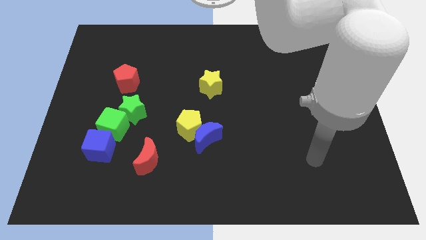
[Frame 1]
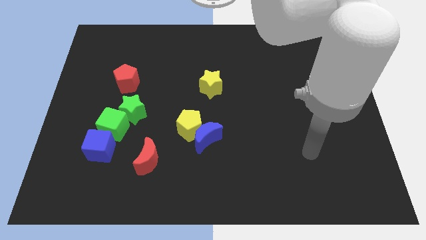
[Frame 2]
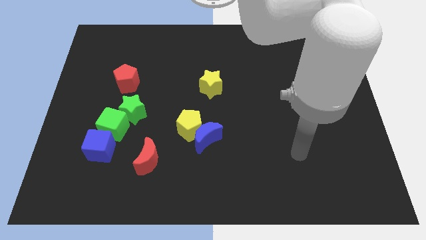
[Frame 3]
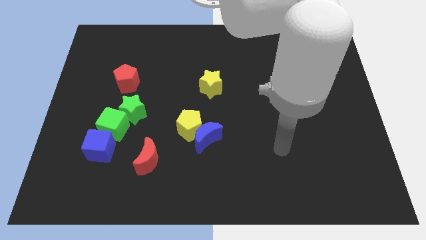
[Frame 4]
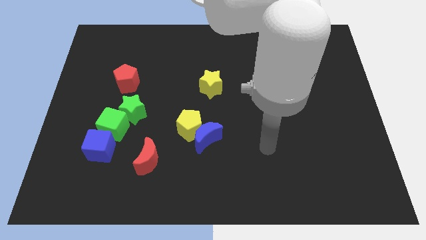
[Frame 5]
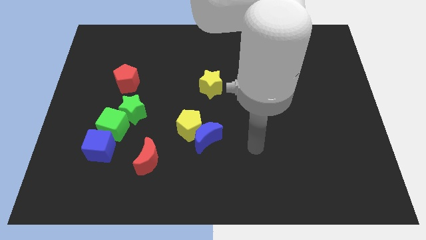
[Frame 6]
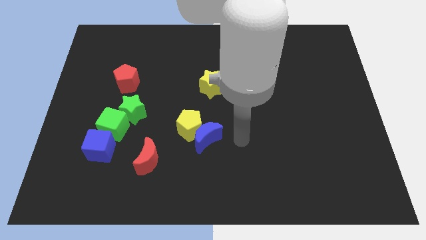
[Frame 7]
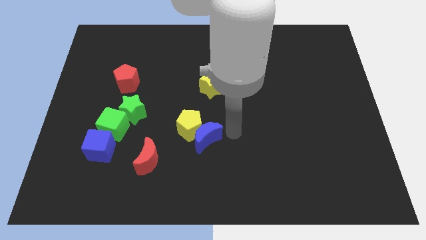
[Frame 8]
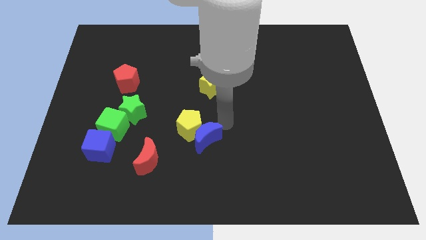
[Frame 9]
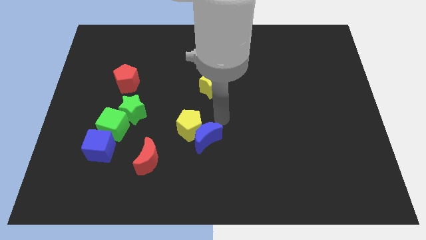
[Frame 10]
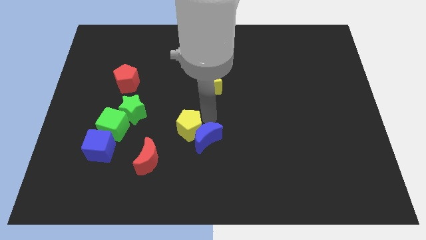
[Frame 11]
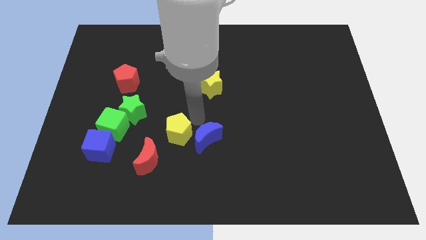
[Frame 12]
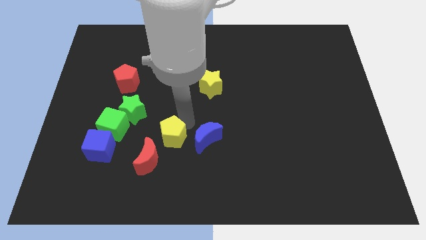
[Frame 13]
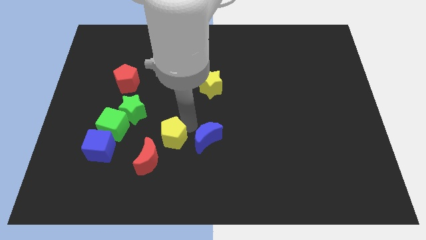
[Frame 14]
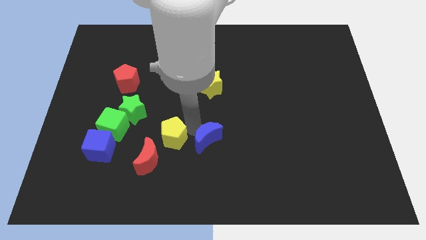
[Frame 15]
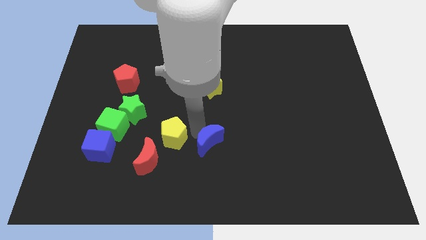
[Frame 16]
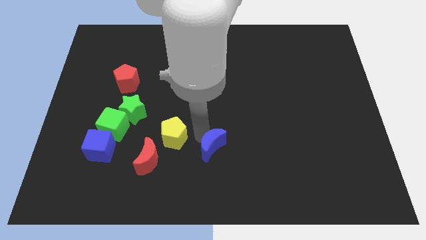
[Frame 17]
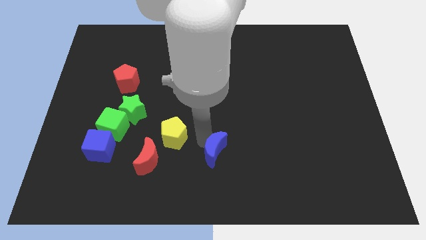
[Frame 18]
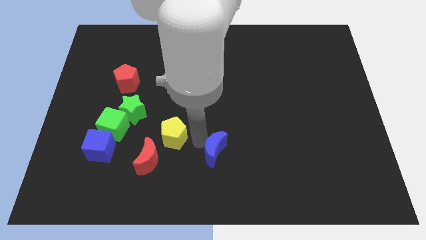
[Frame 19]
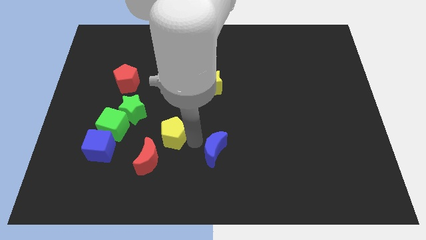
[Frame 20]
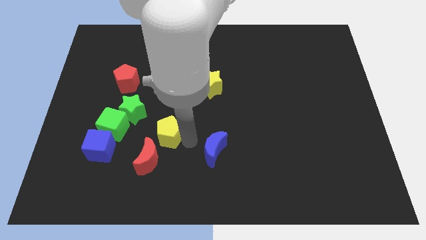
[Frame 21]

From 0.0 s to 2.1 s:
separate the blue moon from the yellow pentagon

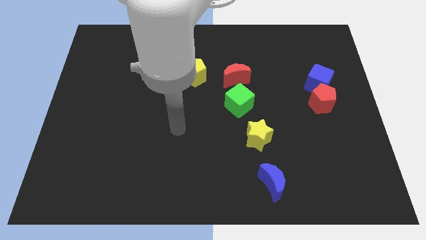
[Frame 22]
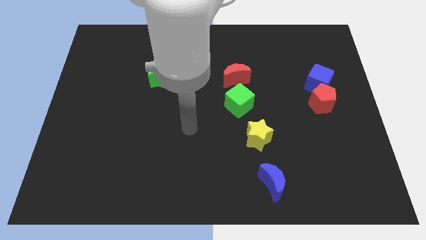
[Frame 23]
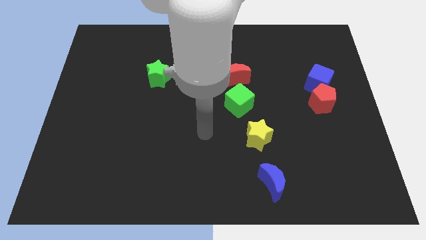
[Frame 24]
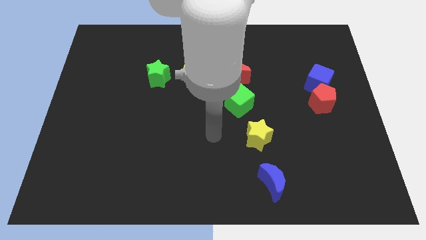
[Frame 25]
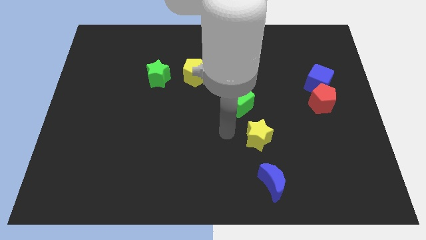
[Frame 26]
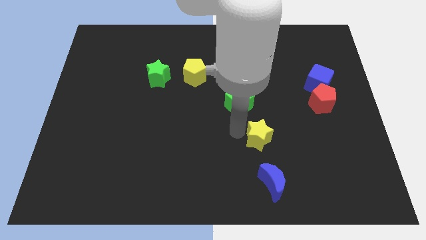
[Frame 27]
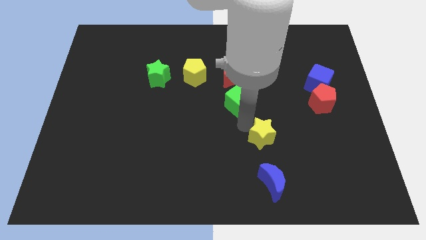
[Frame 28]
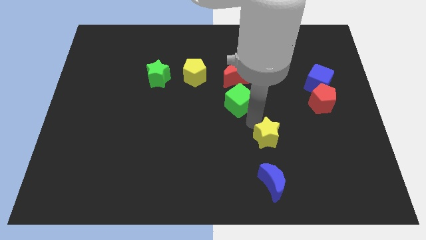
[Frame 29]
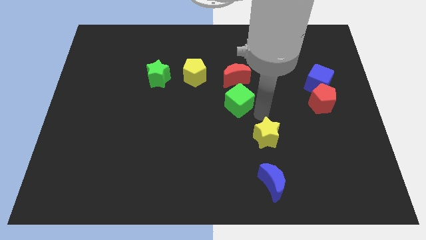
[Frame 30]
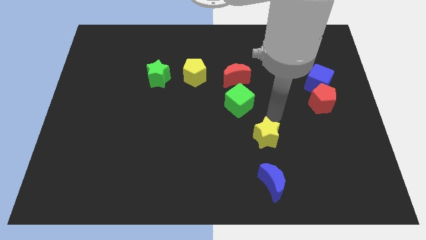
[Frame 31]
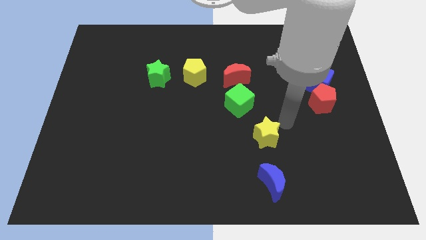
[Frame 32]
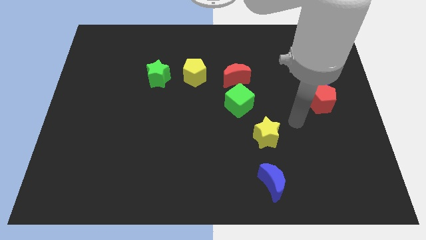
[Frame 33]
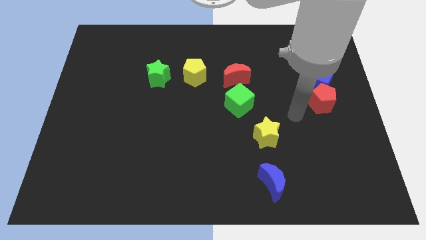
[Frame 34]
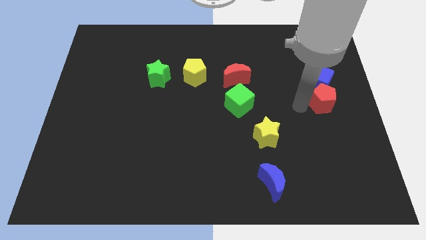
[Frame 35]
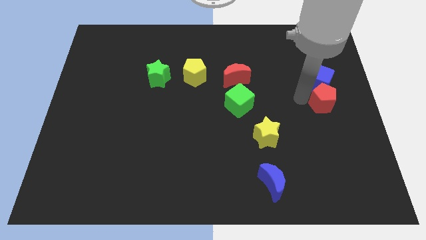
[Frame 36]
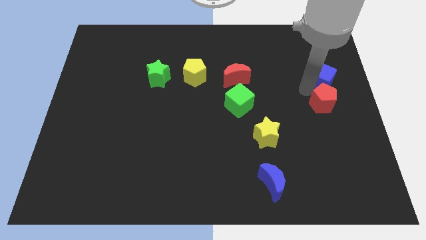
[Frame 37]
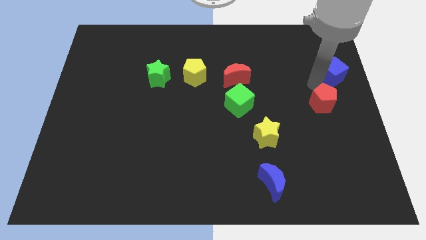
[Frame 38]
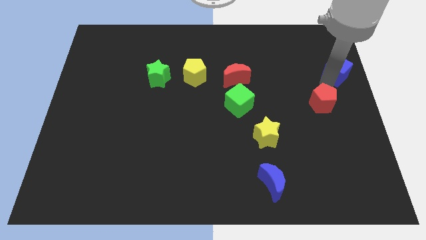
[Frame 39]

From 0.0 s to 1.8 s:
move the red pentagon away from the blue cube

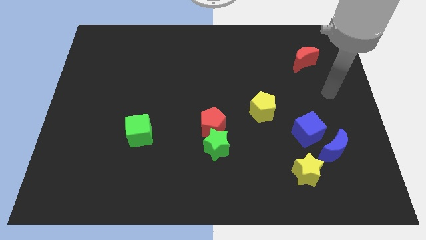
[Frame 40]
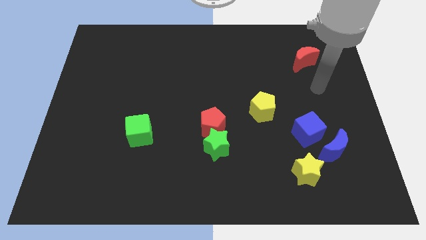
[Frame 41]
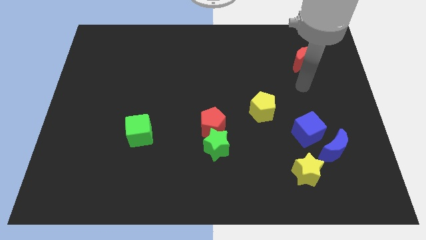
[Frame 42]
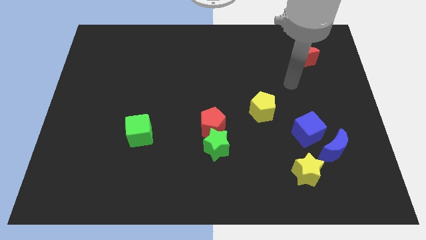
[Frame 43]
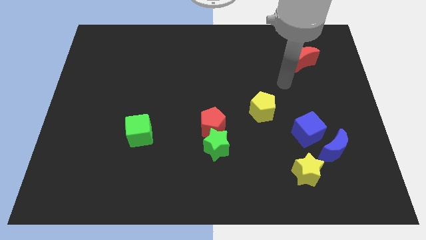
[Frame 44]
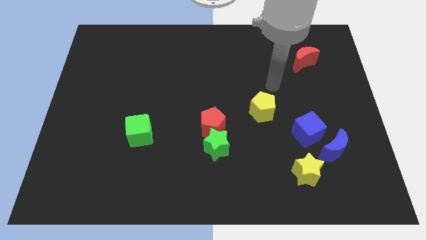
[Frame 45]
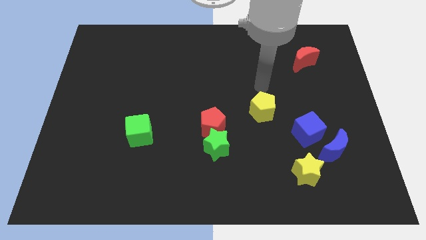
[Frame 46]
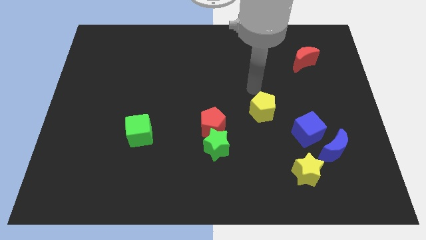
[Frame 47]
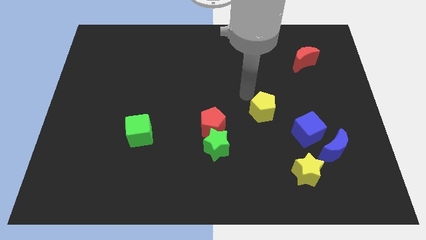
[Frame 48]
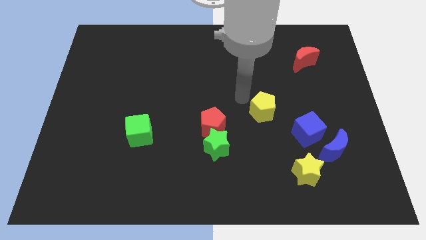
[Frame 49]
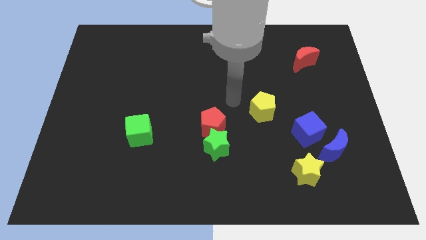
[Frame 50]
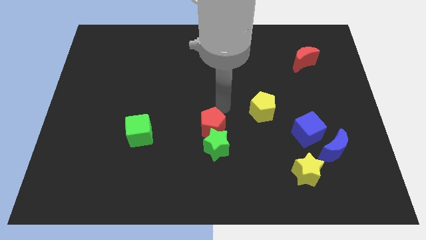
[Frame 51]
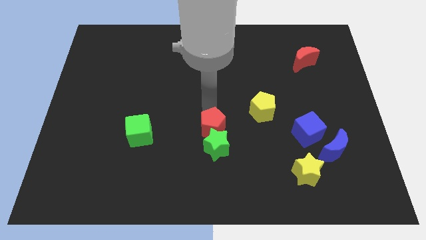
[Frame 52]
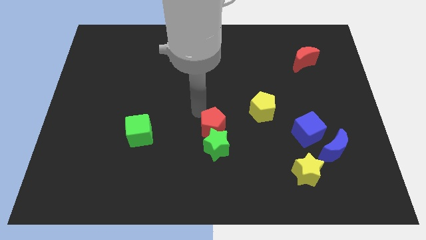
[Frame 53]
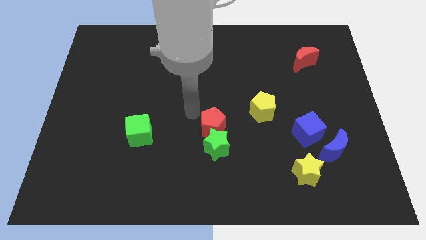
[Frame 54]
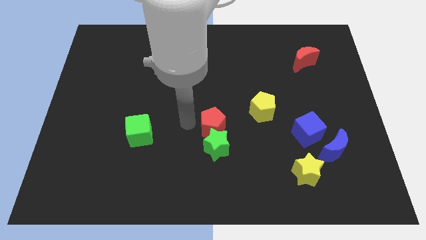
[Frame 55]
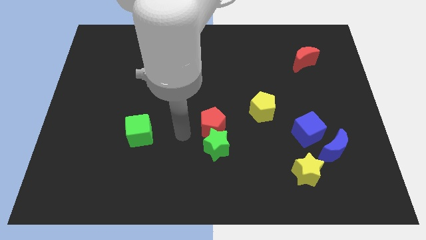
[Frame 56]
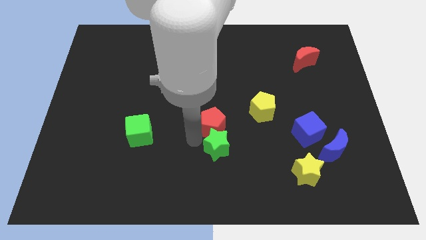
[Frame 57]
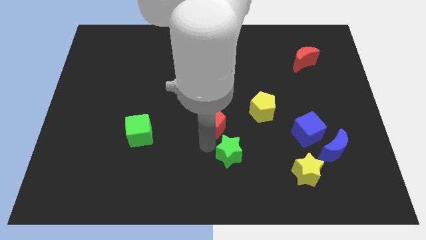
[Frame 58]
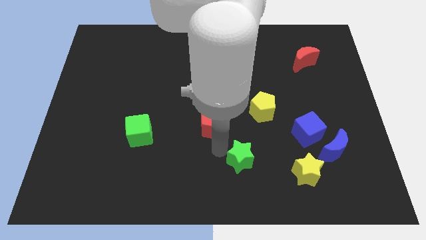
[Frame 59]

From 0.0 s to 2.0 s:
move the red pentagon away from the green star

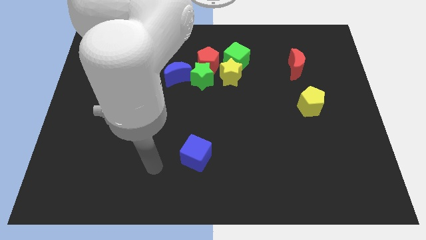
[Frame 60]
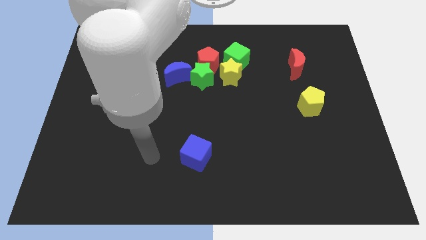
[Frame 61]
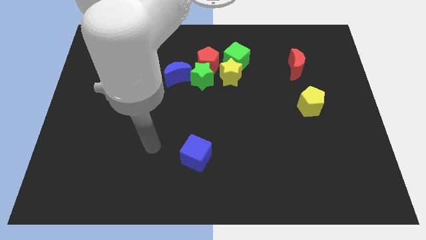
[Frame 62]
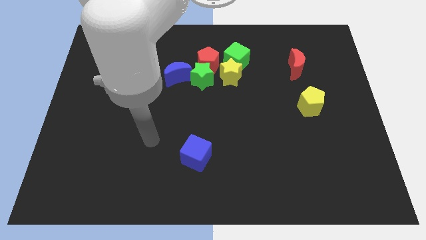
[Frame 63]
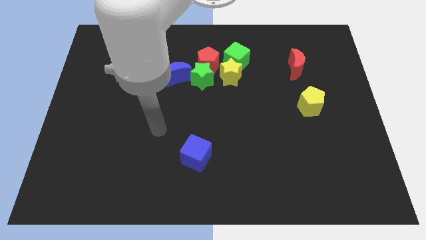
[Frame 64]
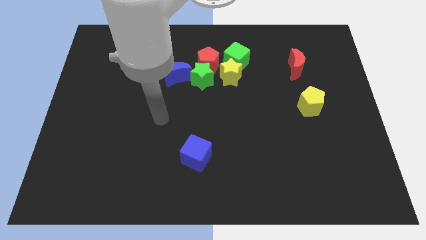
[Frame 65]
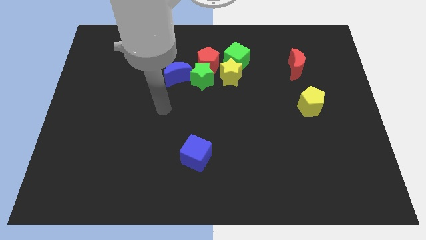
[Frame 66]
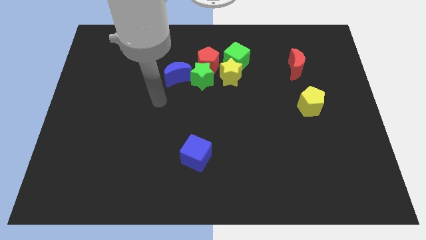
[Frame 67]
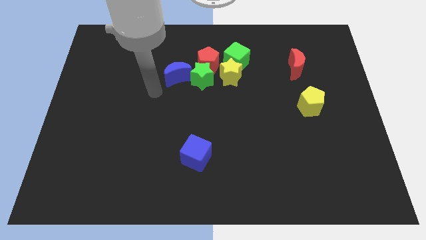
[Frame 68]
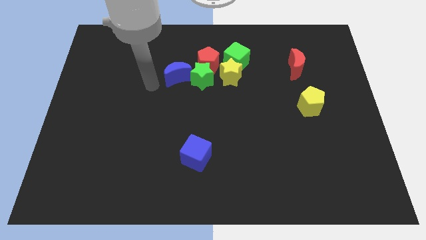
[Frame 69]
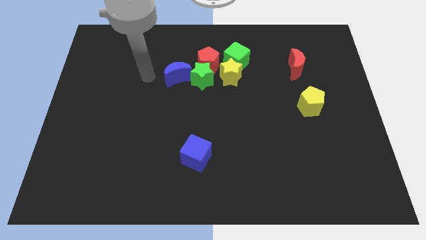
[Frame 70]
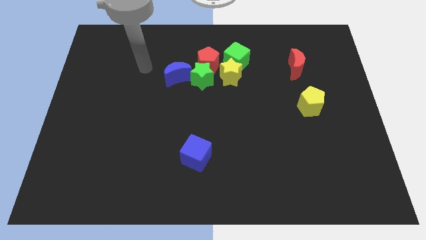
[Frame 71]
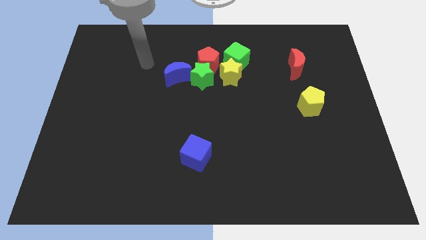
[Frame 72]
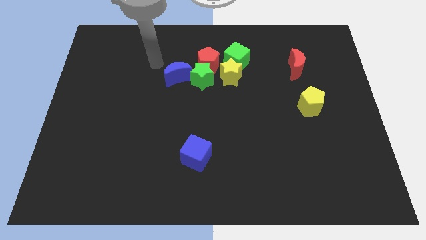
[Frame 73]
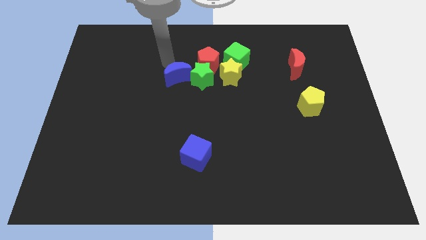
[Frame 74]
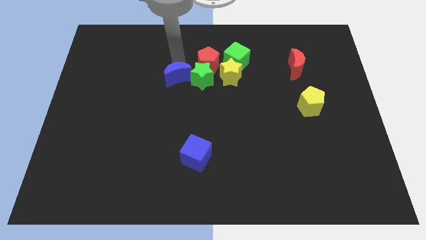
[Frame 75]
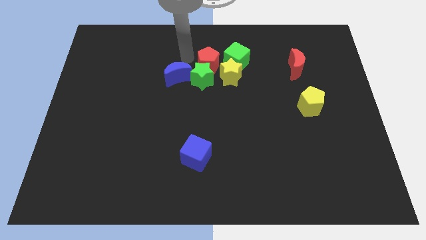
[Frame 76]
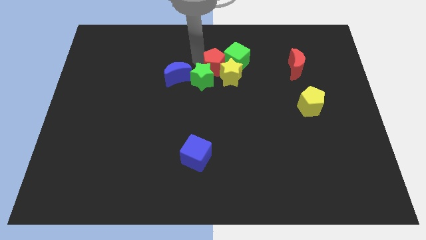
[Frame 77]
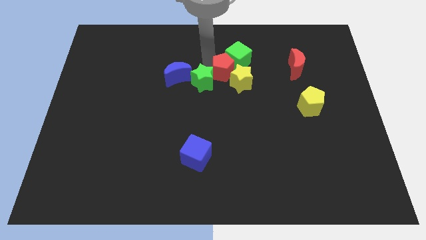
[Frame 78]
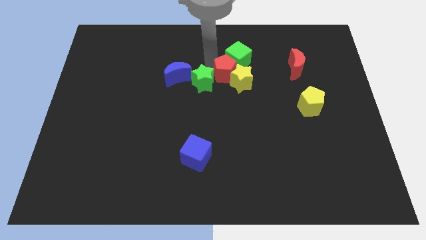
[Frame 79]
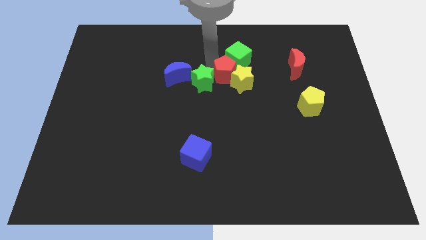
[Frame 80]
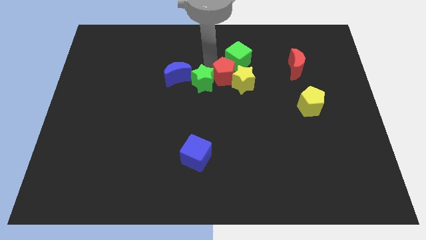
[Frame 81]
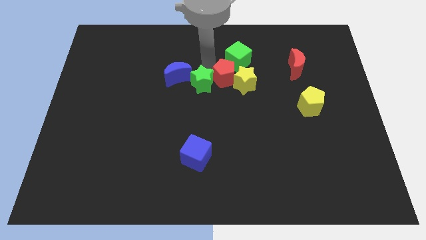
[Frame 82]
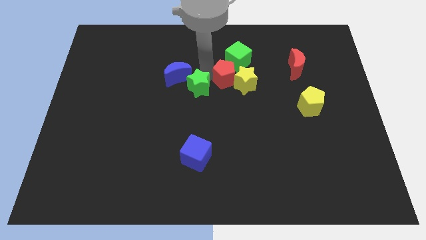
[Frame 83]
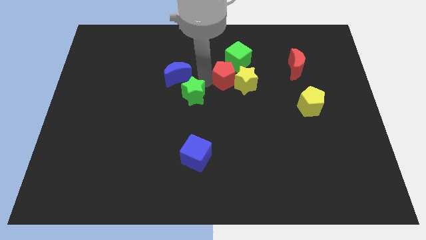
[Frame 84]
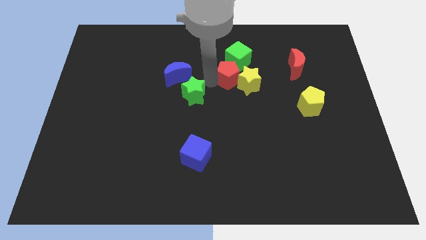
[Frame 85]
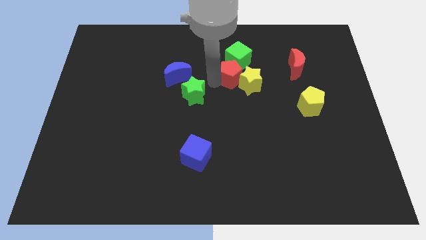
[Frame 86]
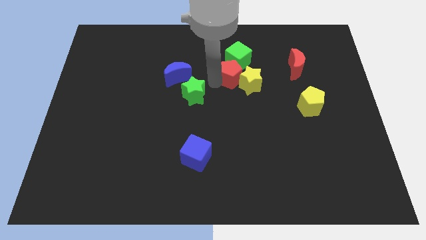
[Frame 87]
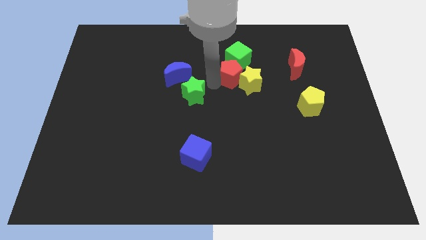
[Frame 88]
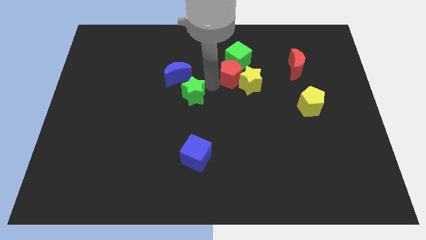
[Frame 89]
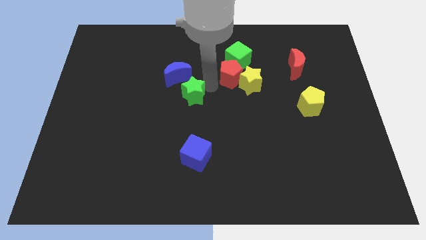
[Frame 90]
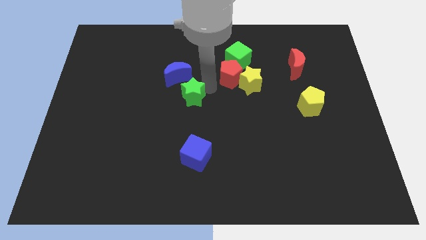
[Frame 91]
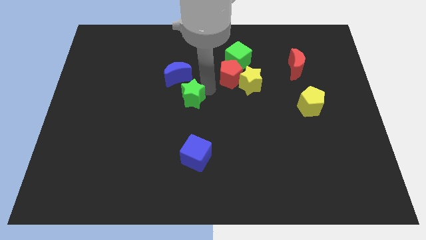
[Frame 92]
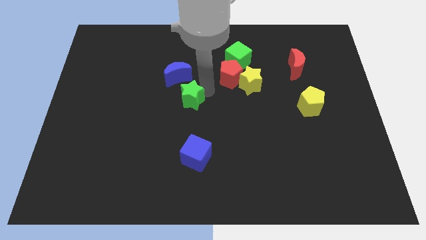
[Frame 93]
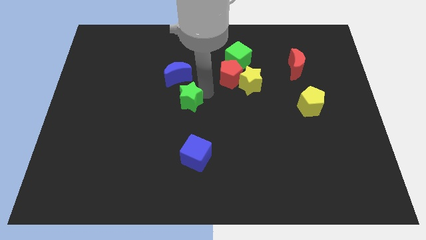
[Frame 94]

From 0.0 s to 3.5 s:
pull the green star apart from the clump
